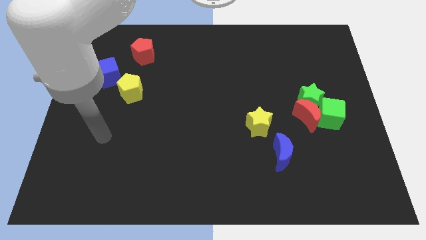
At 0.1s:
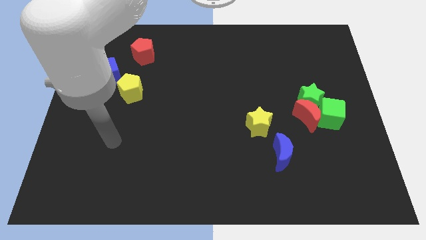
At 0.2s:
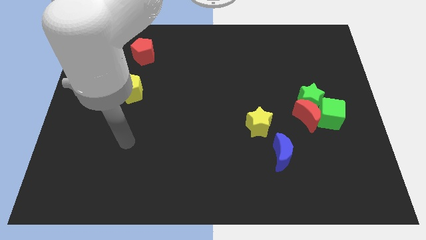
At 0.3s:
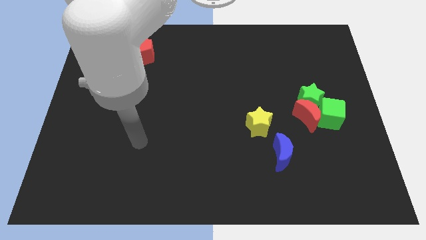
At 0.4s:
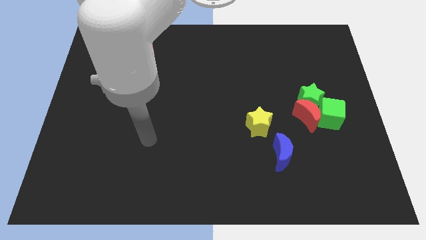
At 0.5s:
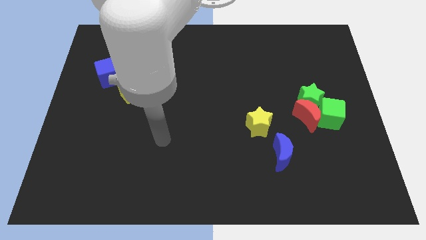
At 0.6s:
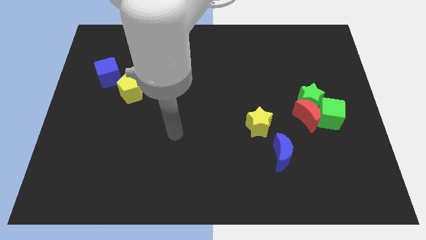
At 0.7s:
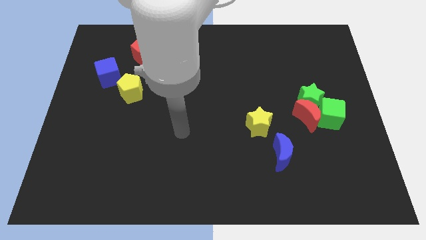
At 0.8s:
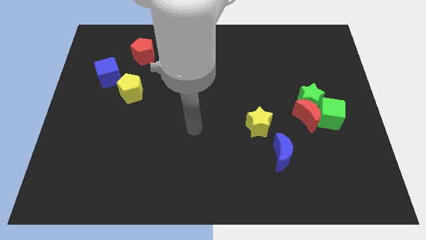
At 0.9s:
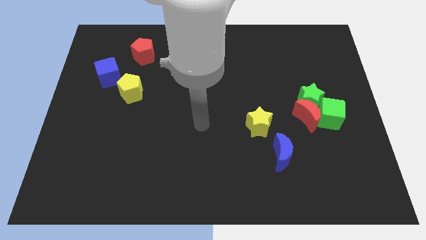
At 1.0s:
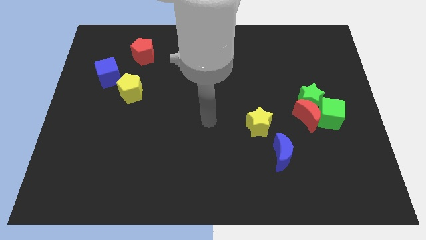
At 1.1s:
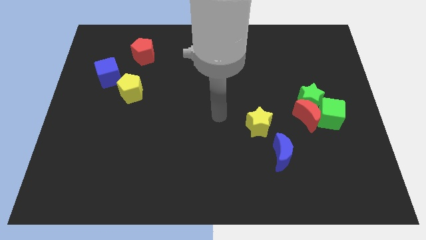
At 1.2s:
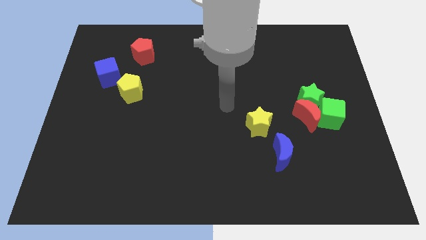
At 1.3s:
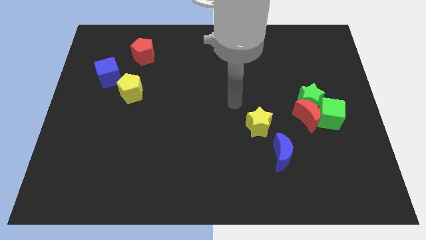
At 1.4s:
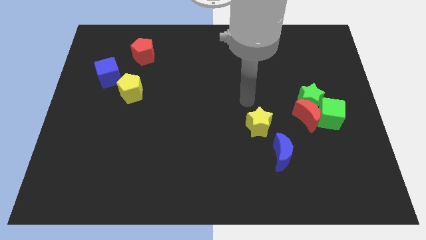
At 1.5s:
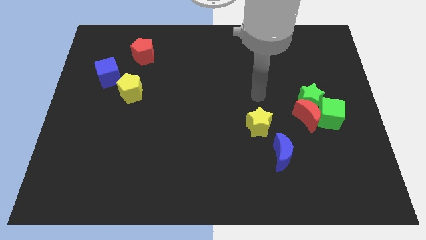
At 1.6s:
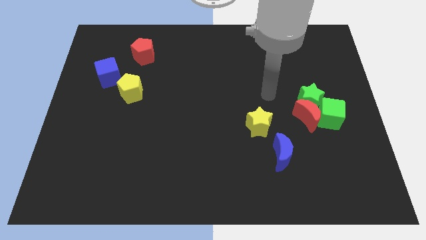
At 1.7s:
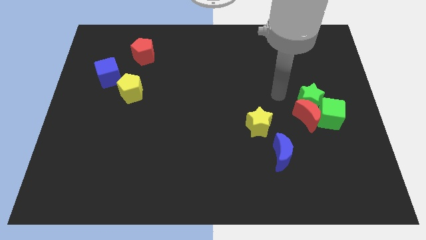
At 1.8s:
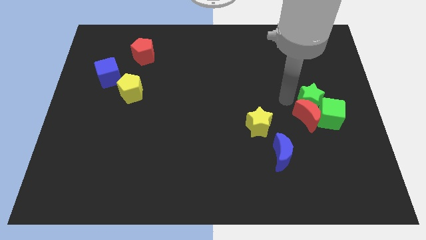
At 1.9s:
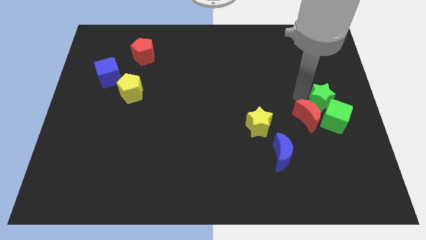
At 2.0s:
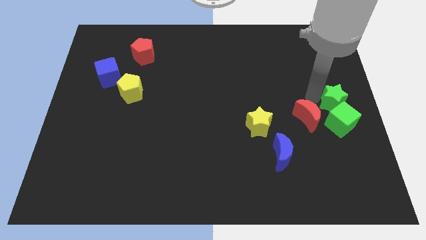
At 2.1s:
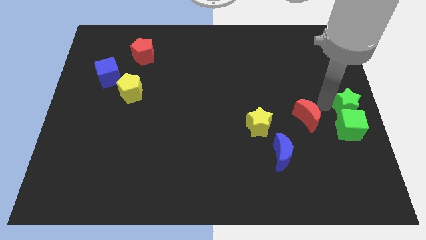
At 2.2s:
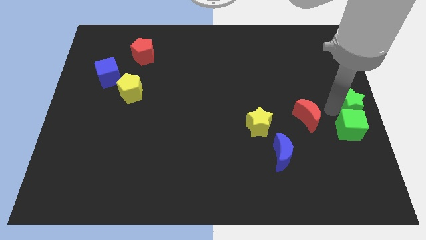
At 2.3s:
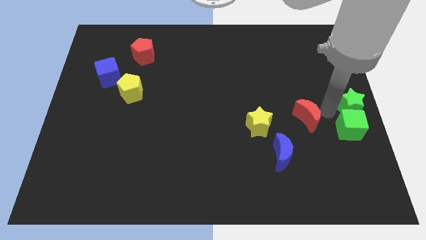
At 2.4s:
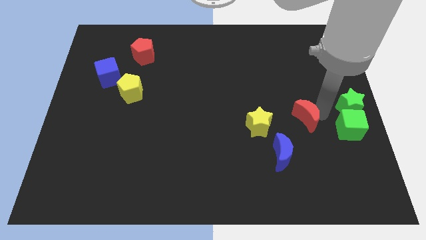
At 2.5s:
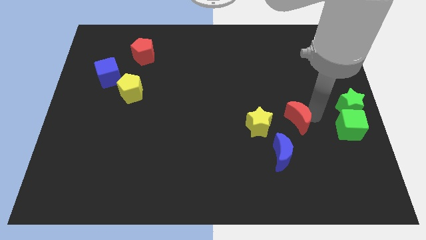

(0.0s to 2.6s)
pull the red moon apart from the green star and green cube

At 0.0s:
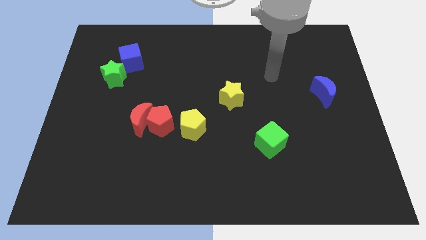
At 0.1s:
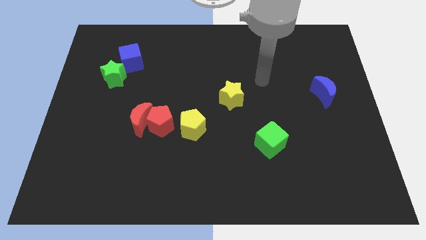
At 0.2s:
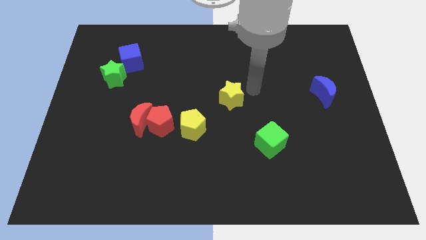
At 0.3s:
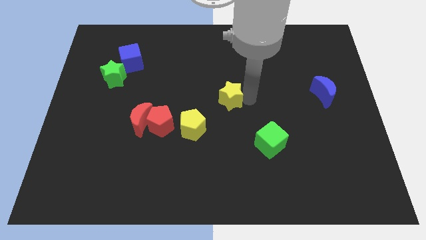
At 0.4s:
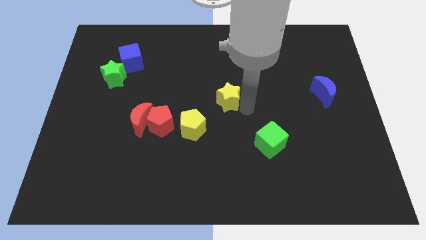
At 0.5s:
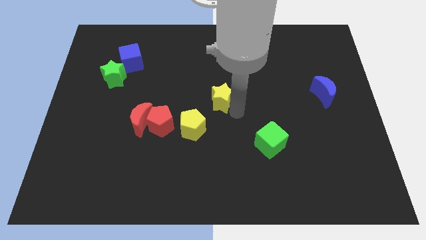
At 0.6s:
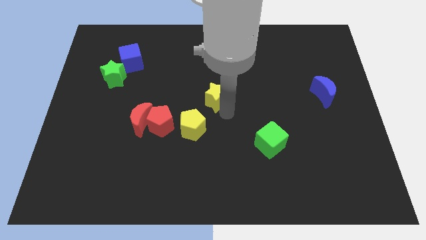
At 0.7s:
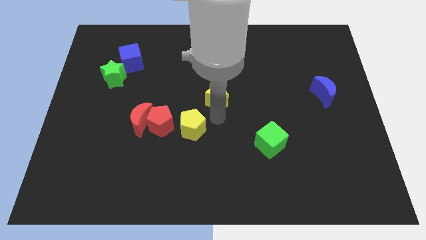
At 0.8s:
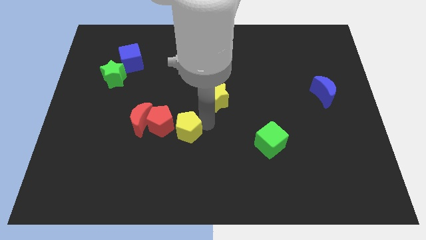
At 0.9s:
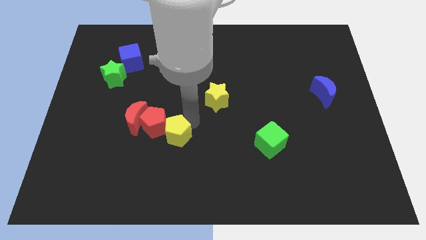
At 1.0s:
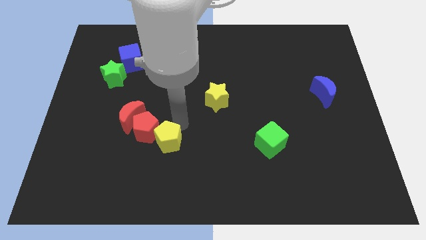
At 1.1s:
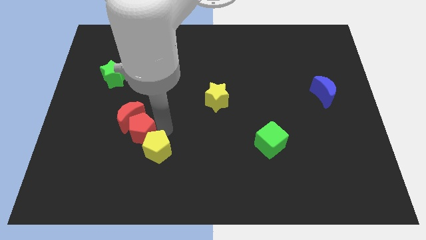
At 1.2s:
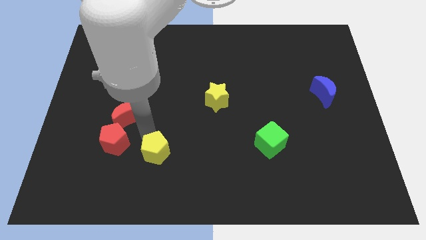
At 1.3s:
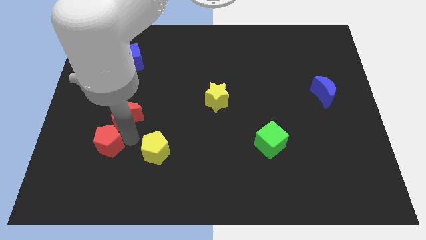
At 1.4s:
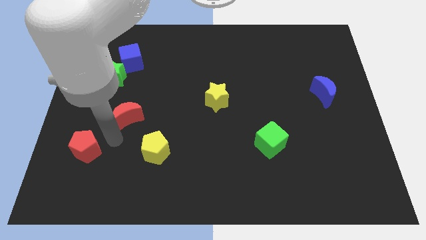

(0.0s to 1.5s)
separate the red moon from the red pentagon

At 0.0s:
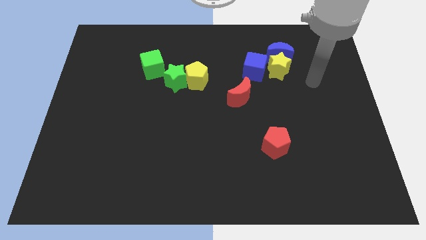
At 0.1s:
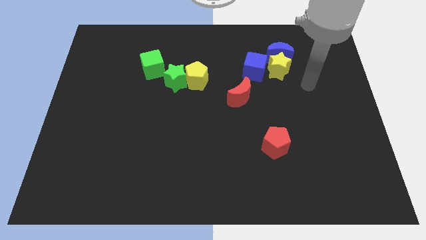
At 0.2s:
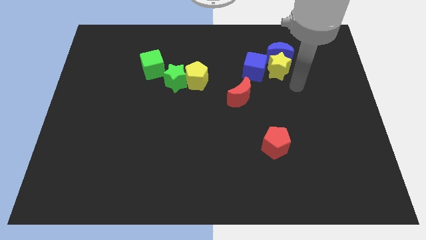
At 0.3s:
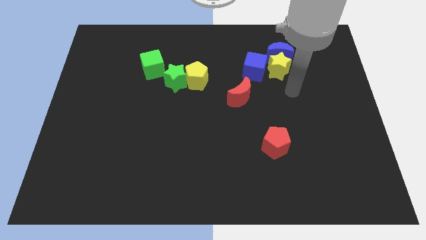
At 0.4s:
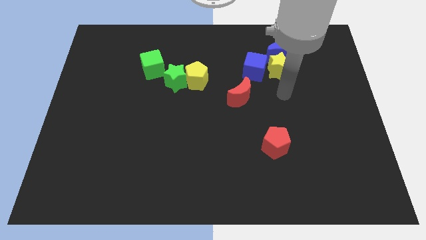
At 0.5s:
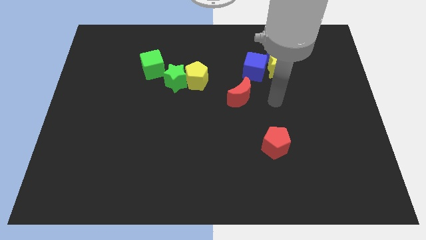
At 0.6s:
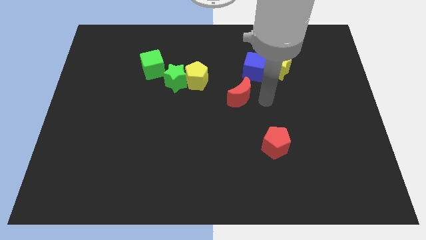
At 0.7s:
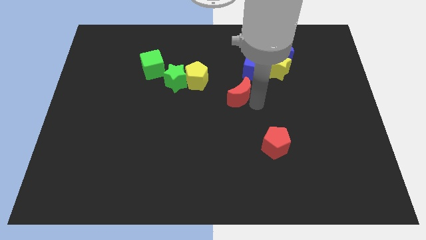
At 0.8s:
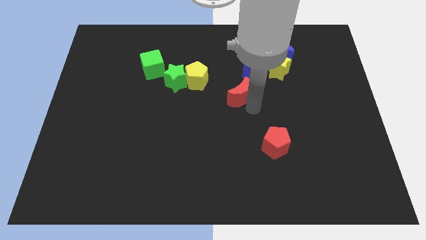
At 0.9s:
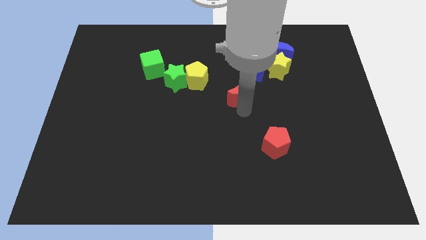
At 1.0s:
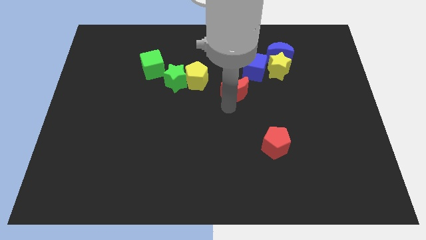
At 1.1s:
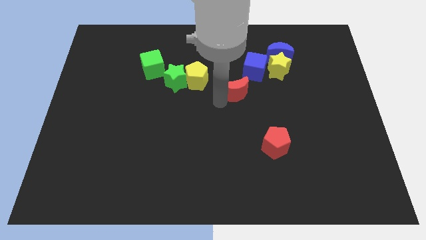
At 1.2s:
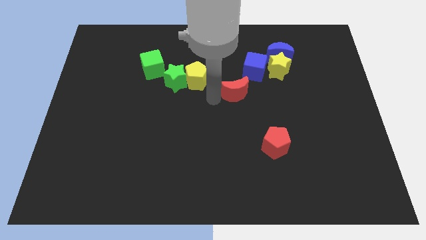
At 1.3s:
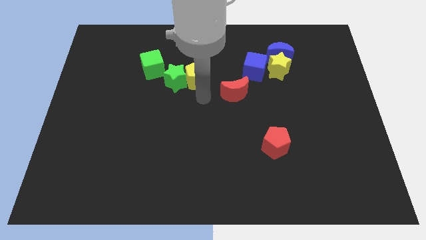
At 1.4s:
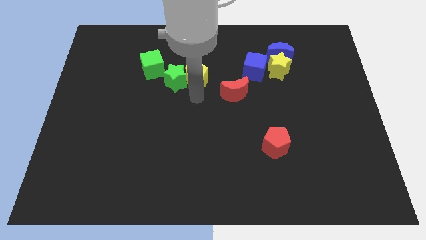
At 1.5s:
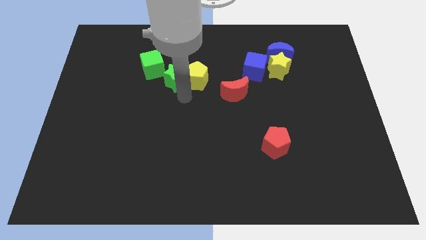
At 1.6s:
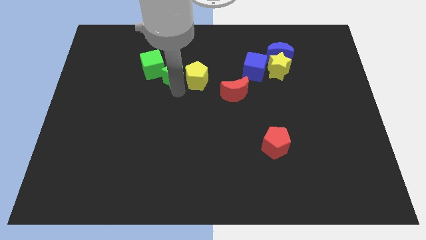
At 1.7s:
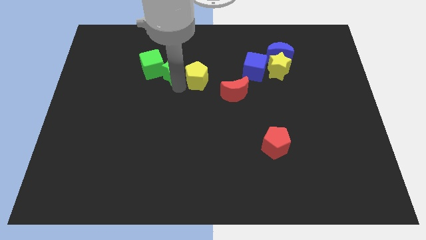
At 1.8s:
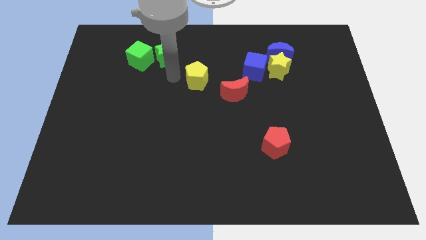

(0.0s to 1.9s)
pull the yellow pentagon apart from the green star

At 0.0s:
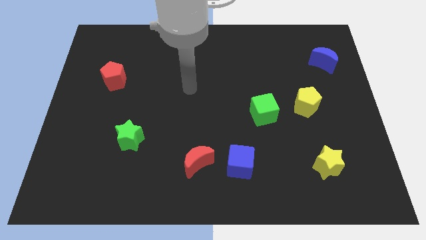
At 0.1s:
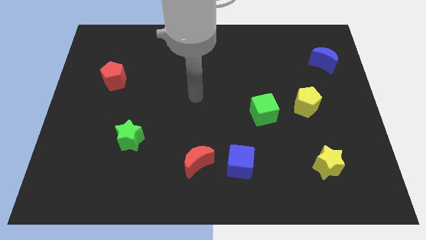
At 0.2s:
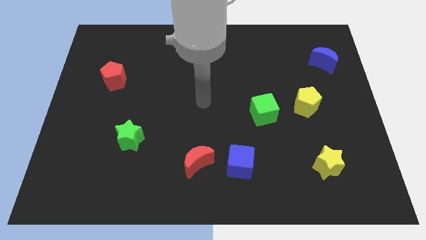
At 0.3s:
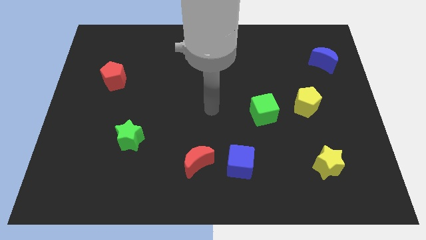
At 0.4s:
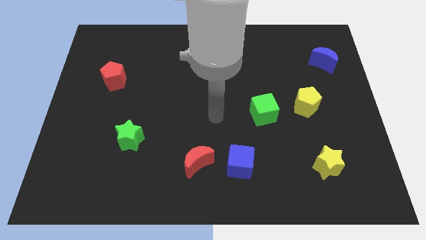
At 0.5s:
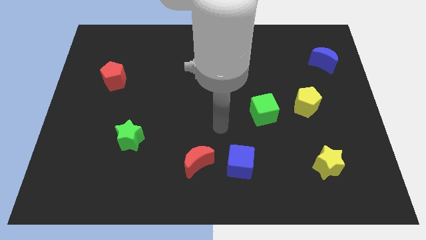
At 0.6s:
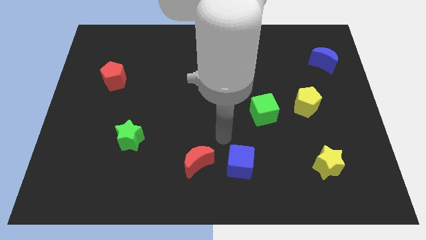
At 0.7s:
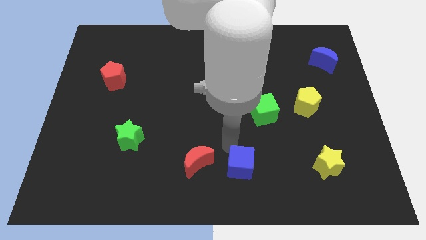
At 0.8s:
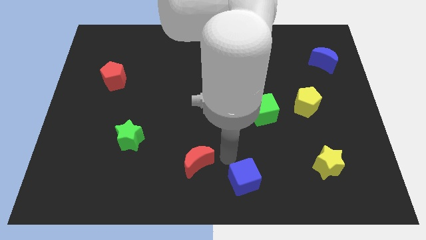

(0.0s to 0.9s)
pull the red moon apart from the blue cube

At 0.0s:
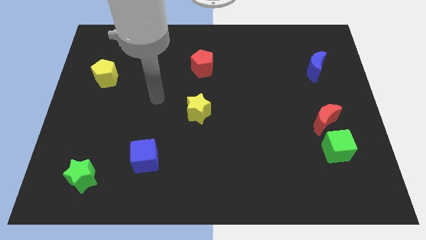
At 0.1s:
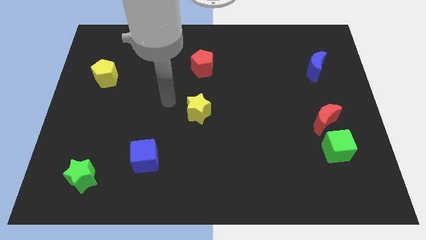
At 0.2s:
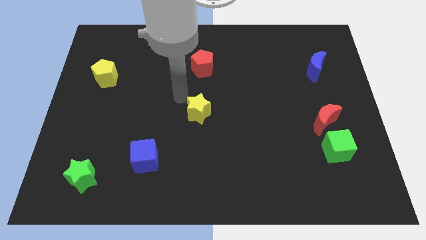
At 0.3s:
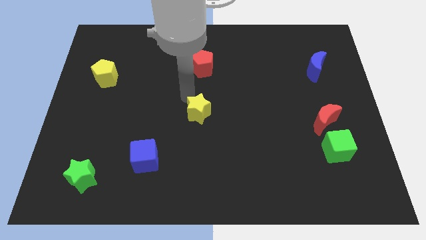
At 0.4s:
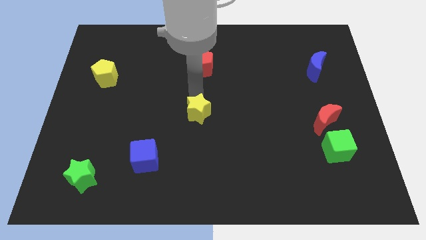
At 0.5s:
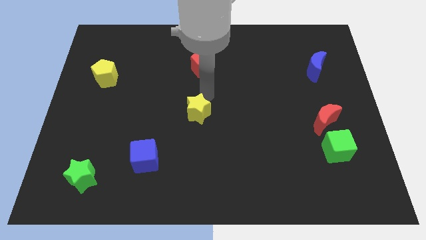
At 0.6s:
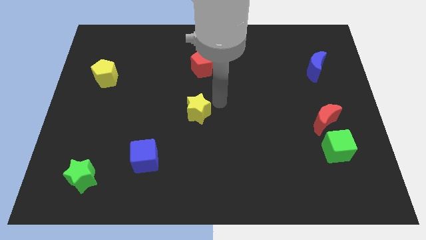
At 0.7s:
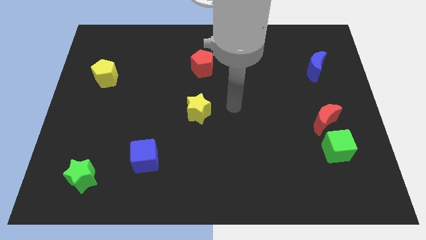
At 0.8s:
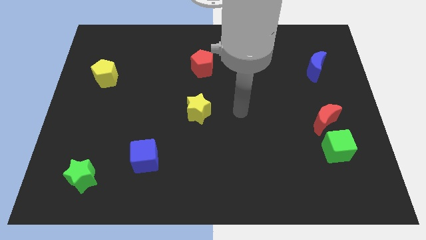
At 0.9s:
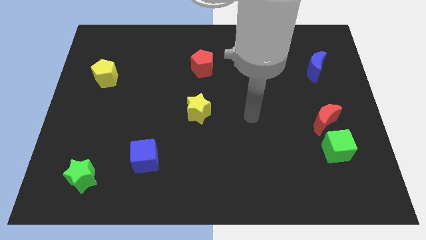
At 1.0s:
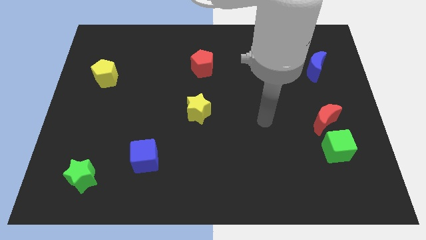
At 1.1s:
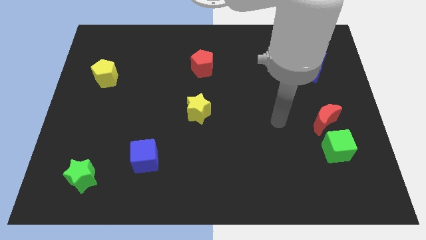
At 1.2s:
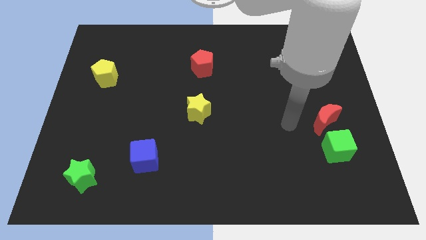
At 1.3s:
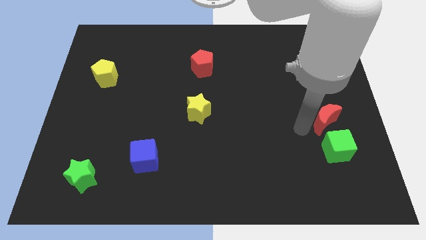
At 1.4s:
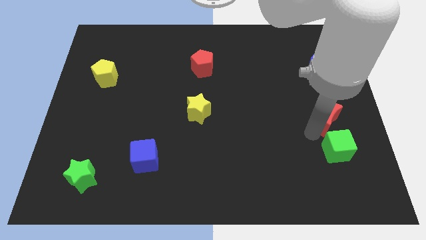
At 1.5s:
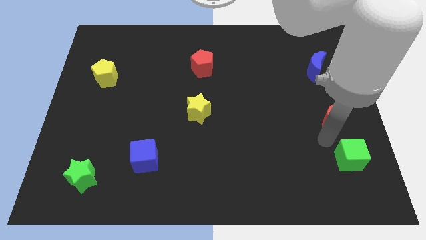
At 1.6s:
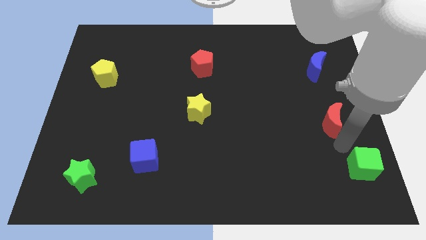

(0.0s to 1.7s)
pull the red moon apart from the green cube

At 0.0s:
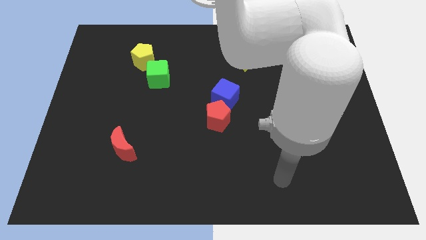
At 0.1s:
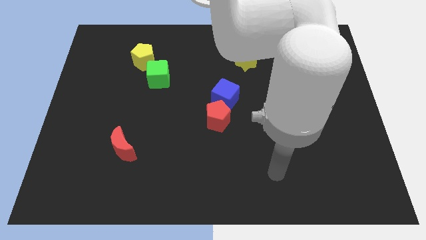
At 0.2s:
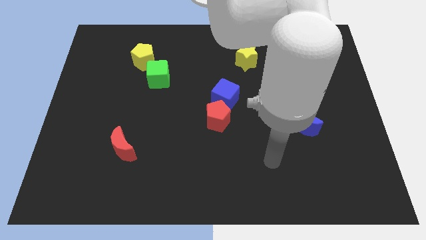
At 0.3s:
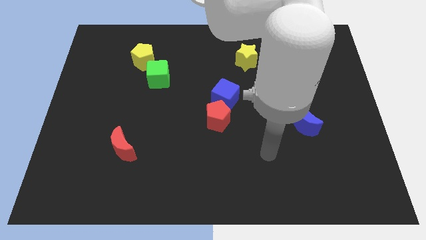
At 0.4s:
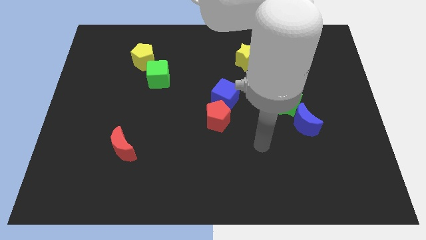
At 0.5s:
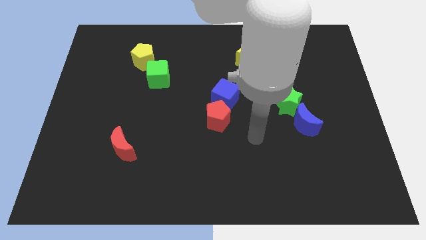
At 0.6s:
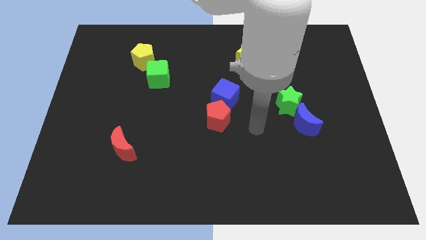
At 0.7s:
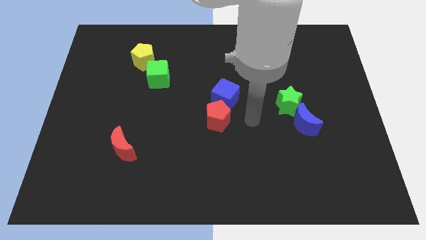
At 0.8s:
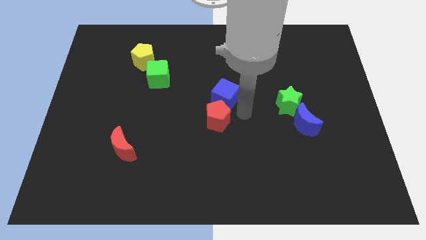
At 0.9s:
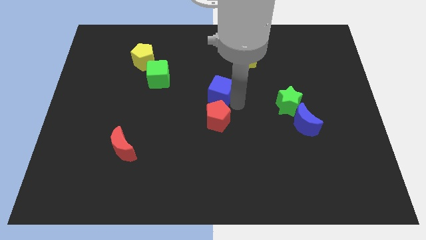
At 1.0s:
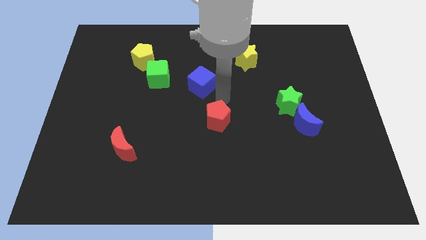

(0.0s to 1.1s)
pull the red pentagon apart from the blue cube
